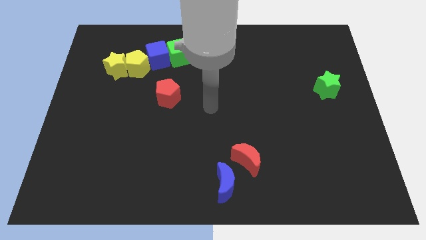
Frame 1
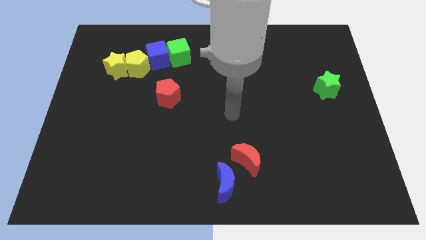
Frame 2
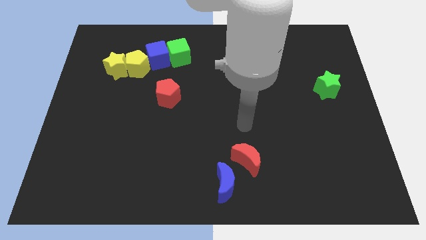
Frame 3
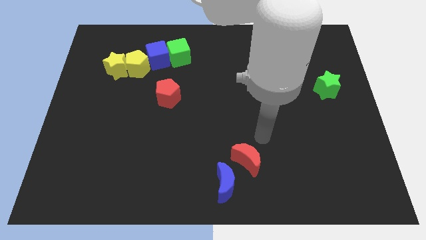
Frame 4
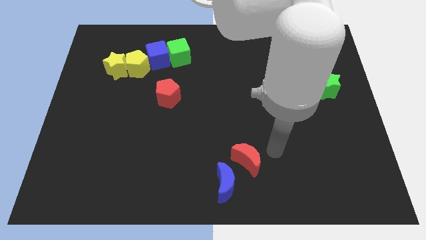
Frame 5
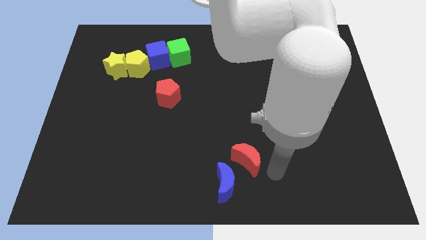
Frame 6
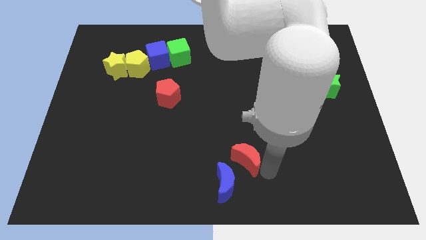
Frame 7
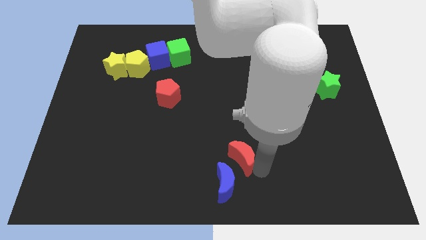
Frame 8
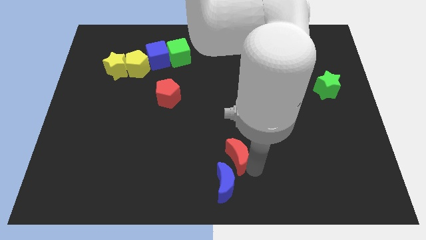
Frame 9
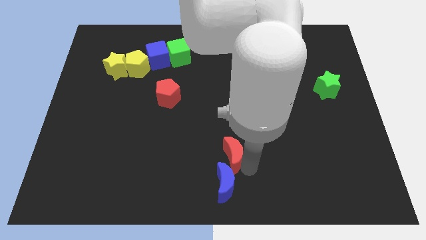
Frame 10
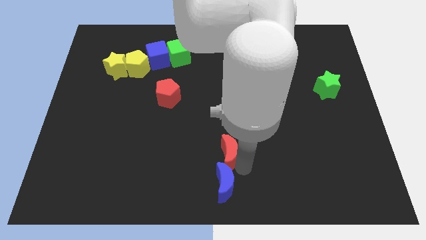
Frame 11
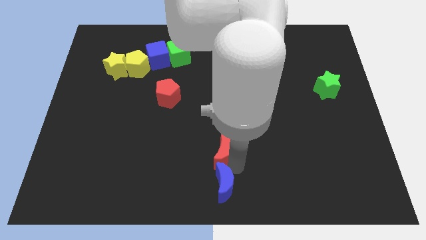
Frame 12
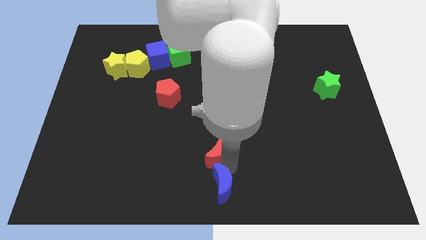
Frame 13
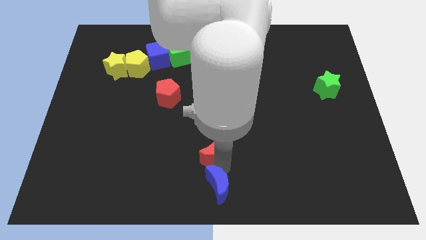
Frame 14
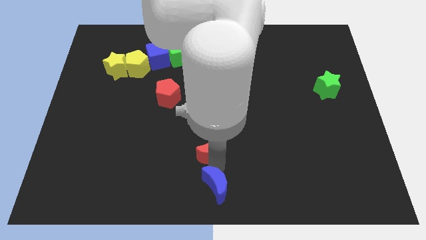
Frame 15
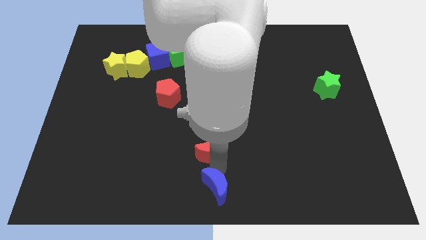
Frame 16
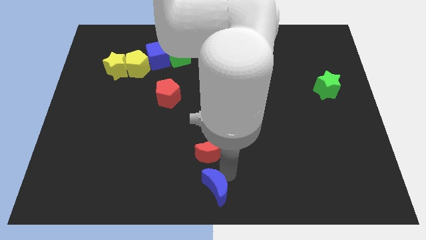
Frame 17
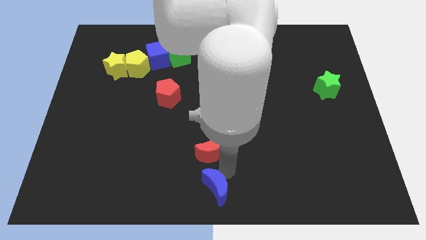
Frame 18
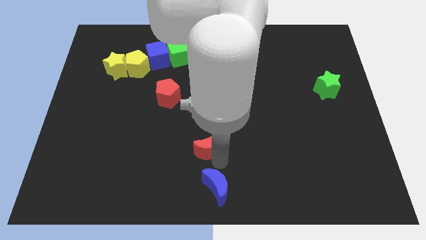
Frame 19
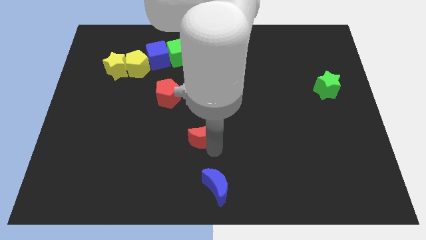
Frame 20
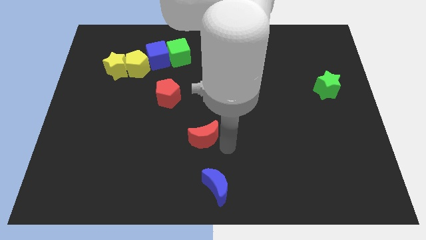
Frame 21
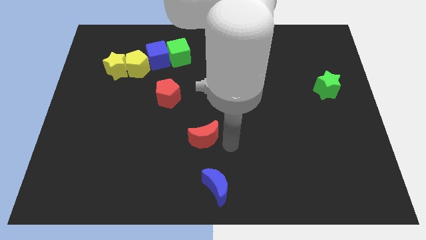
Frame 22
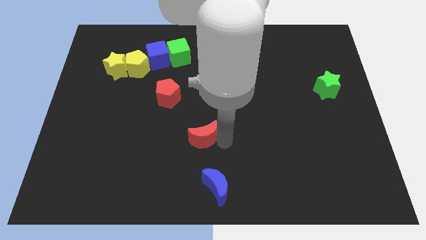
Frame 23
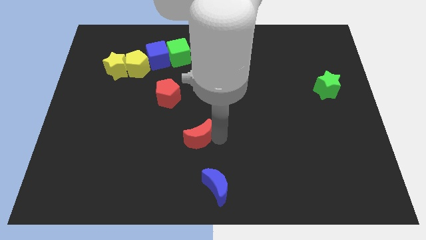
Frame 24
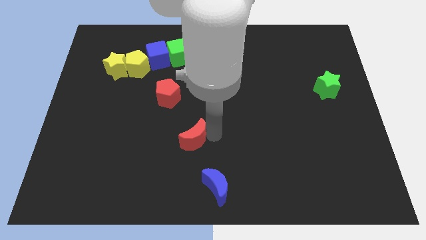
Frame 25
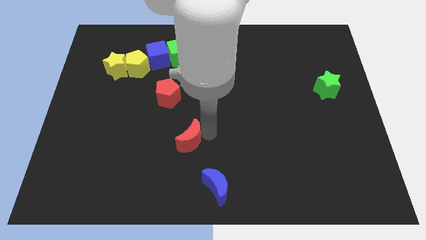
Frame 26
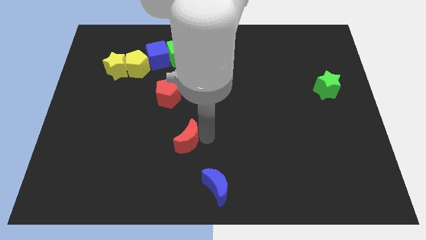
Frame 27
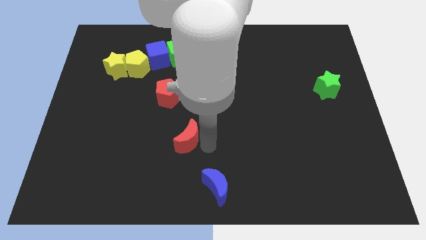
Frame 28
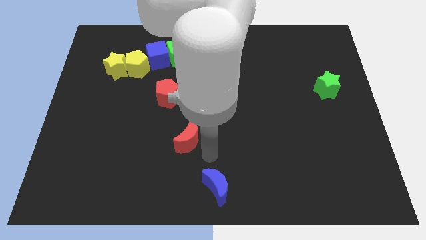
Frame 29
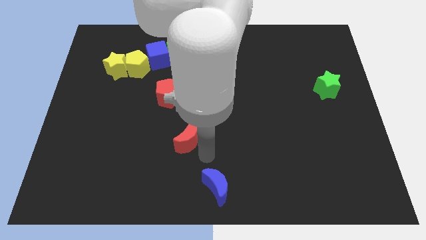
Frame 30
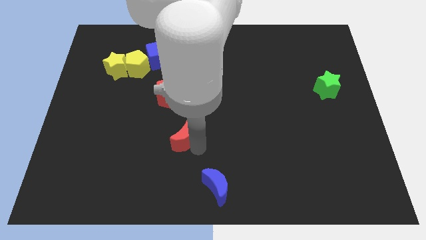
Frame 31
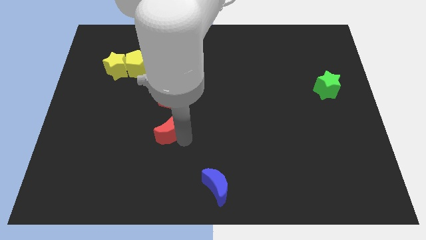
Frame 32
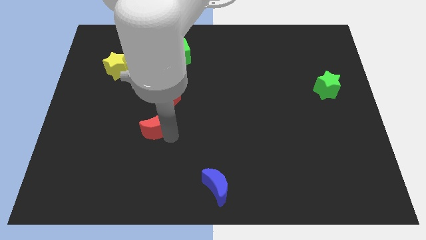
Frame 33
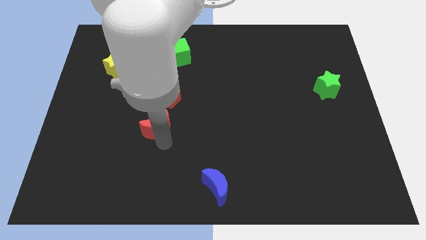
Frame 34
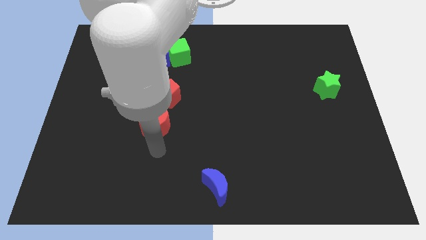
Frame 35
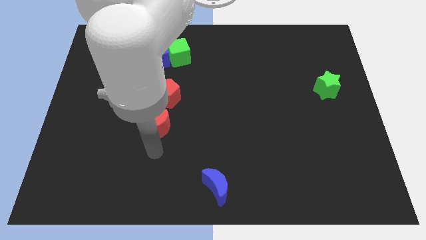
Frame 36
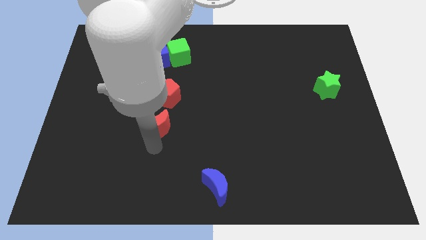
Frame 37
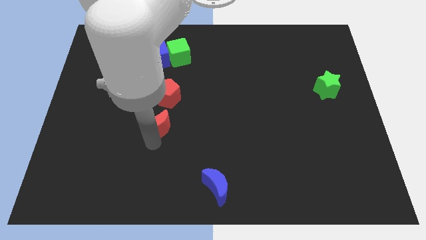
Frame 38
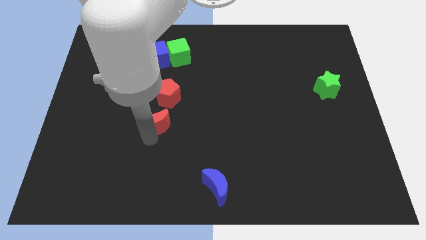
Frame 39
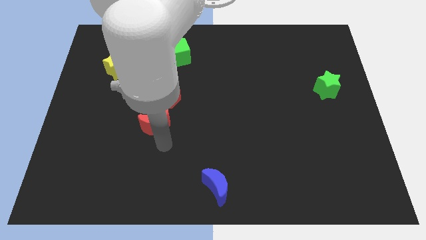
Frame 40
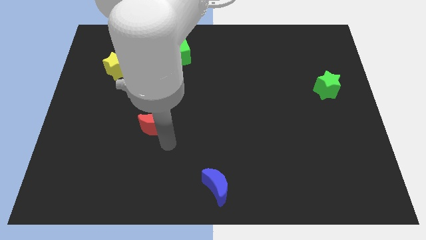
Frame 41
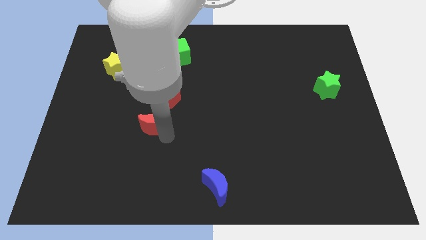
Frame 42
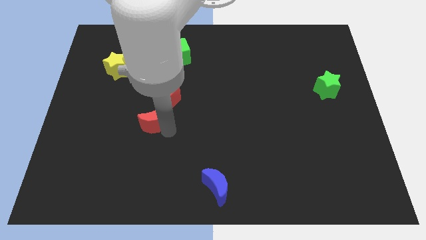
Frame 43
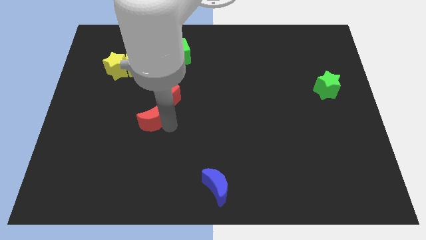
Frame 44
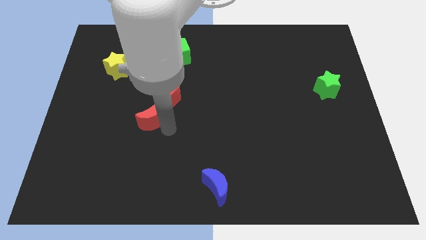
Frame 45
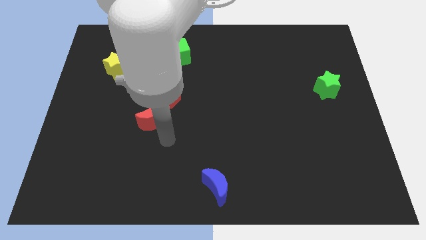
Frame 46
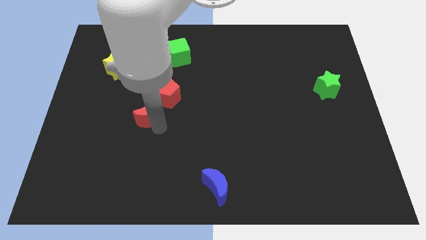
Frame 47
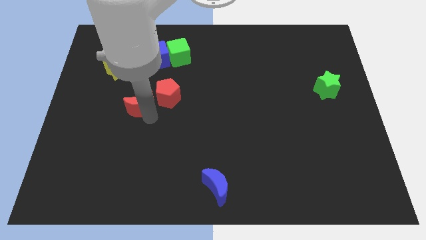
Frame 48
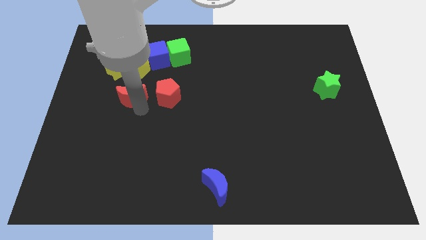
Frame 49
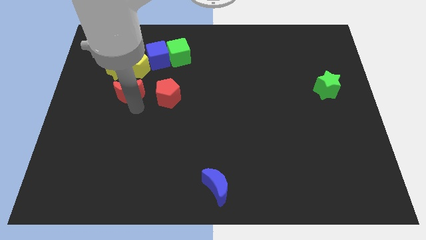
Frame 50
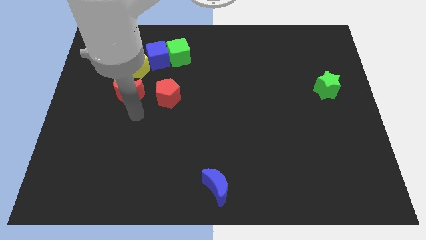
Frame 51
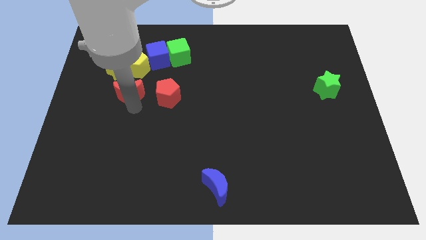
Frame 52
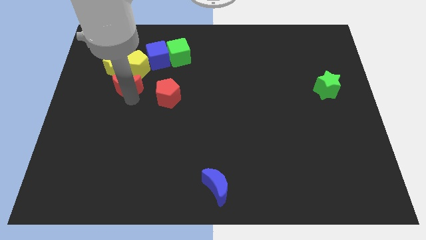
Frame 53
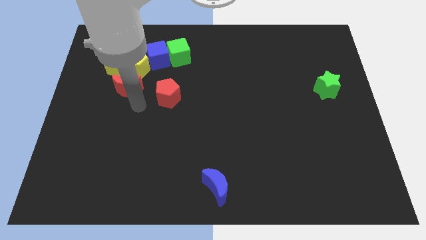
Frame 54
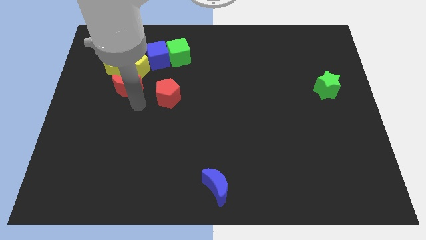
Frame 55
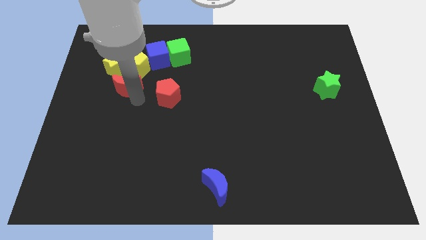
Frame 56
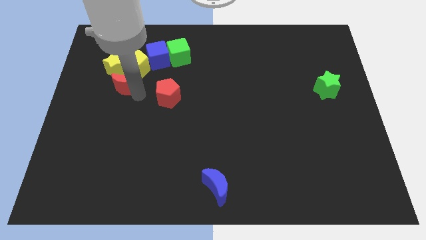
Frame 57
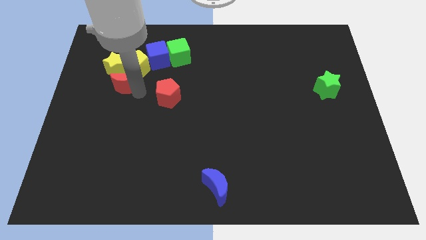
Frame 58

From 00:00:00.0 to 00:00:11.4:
push the red moon towards the yellow star
